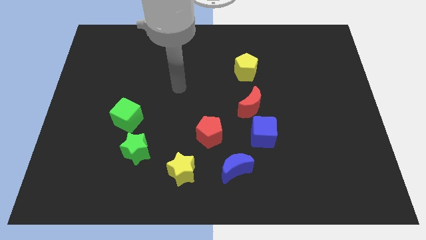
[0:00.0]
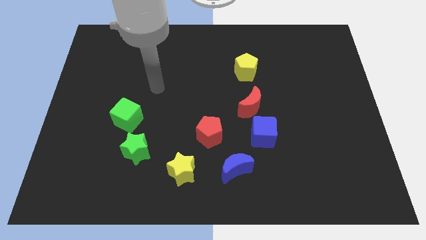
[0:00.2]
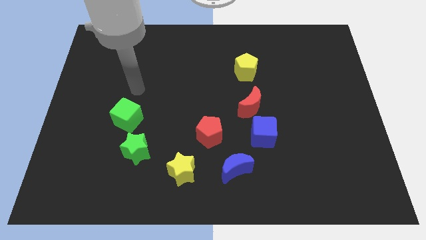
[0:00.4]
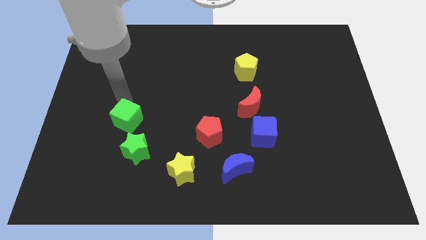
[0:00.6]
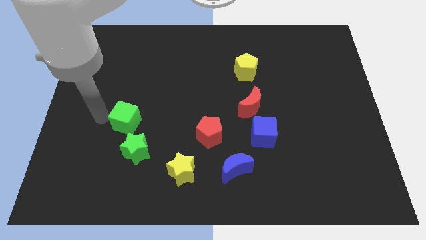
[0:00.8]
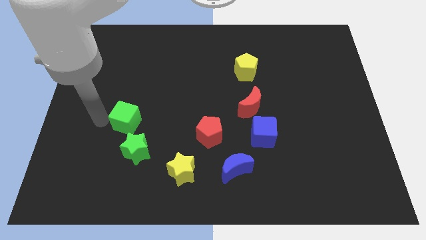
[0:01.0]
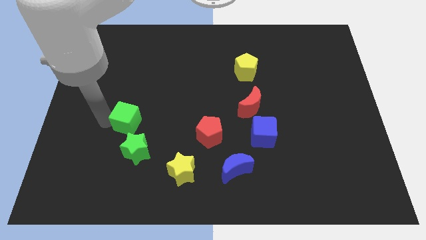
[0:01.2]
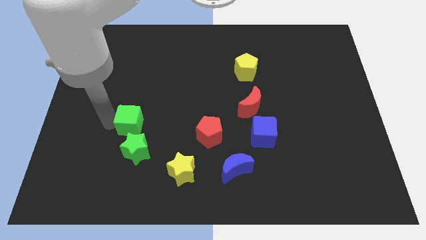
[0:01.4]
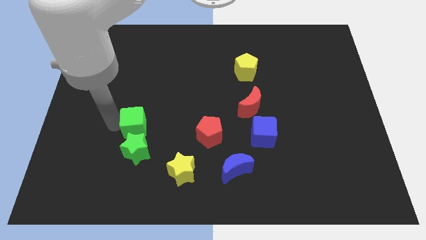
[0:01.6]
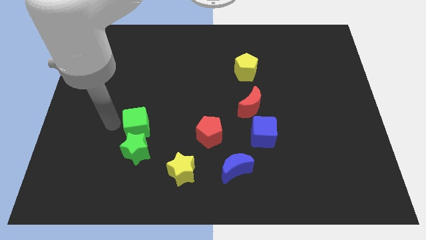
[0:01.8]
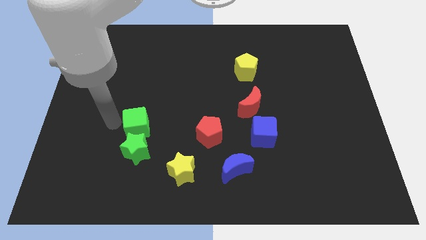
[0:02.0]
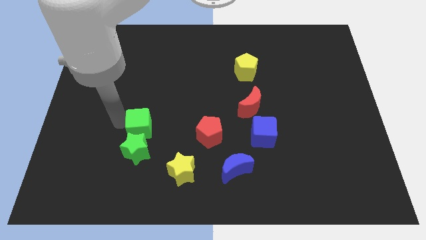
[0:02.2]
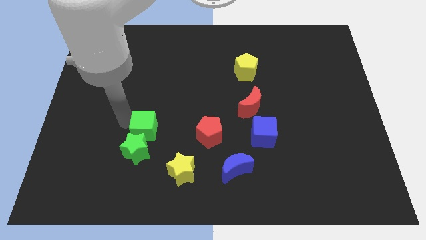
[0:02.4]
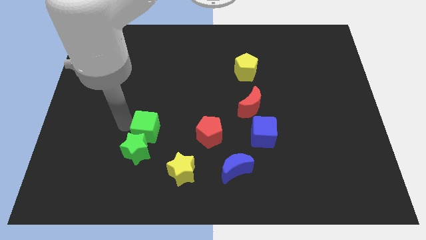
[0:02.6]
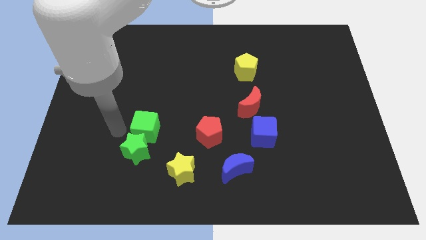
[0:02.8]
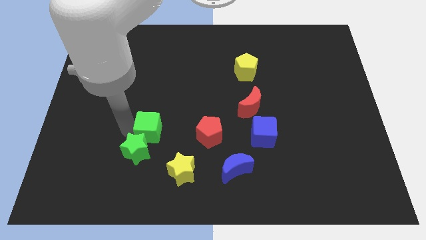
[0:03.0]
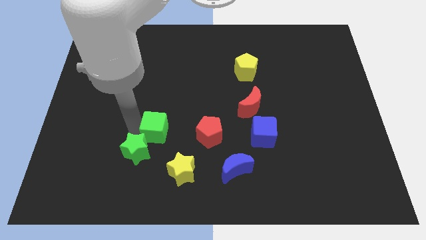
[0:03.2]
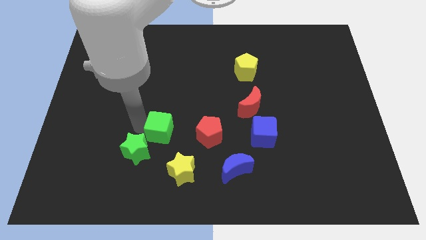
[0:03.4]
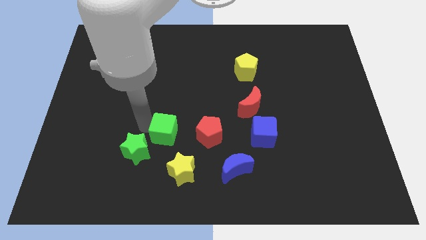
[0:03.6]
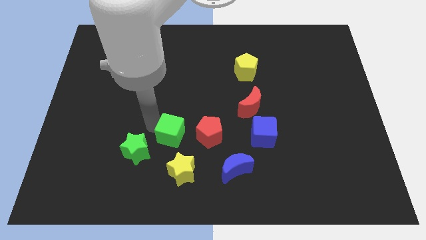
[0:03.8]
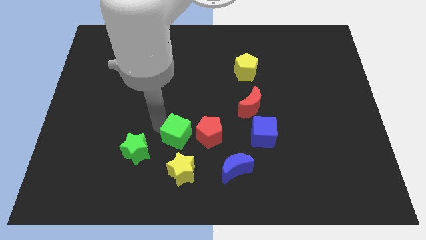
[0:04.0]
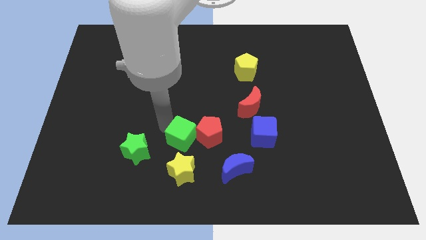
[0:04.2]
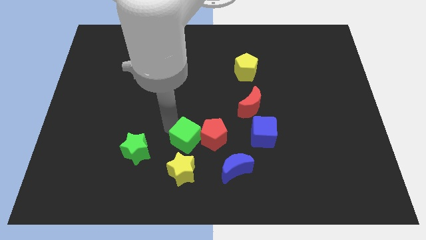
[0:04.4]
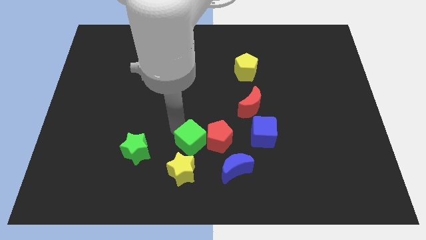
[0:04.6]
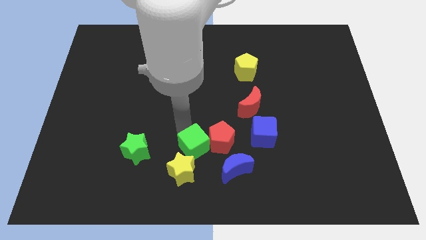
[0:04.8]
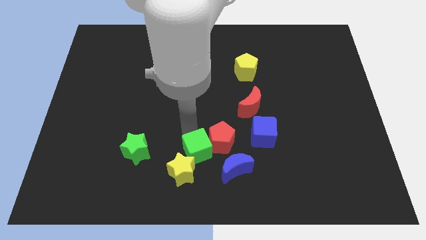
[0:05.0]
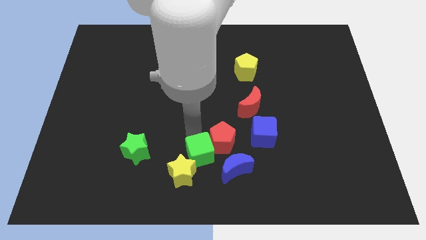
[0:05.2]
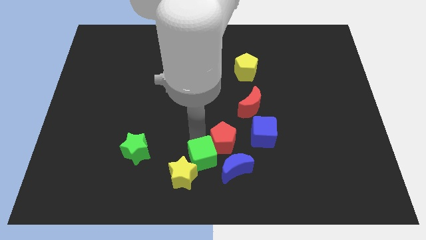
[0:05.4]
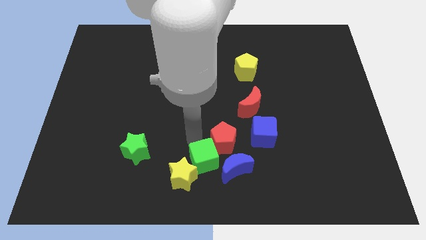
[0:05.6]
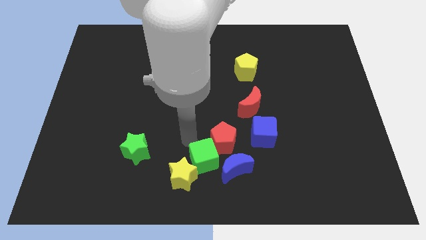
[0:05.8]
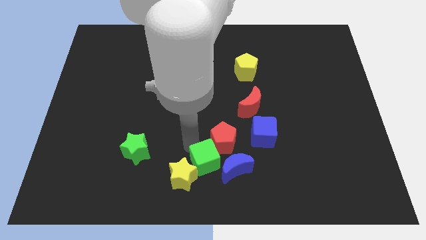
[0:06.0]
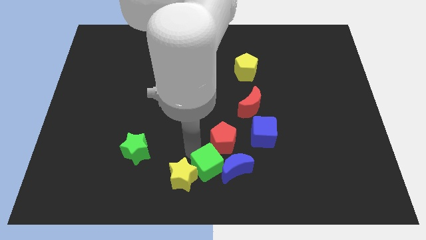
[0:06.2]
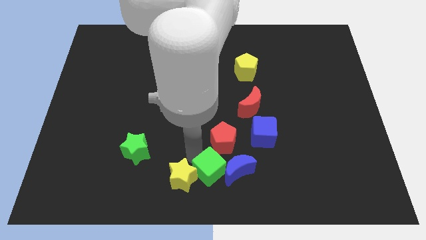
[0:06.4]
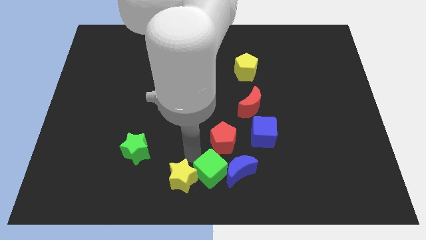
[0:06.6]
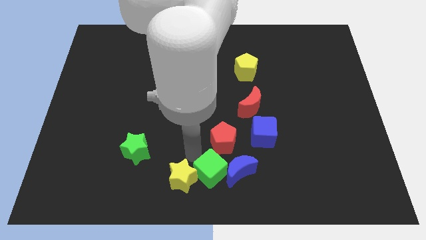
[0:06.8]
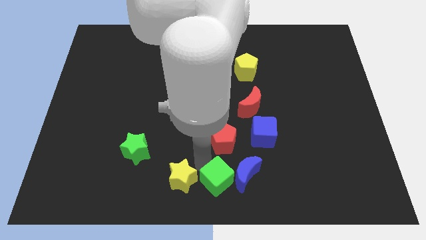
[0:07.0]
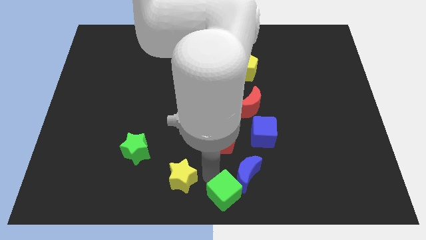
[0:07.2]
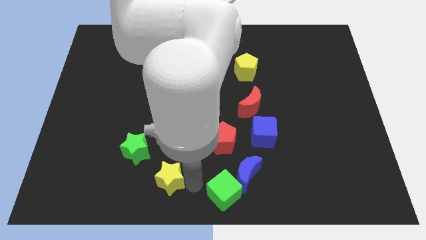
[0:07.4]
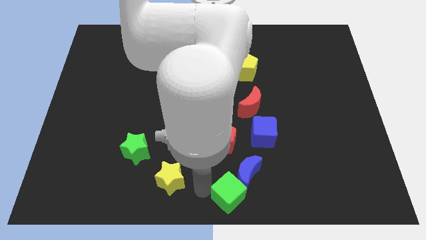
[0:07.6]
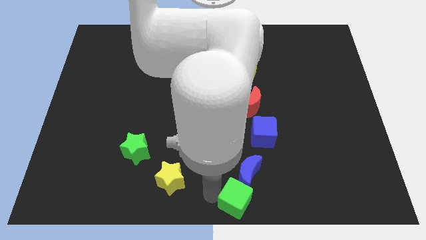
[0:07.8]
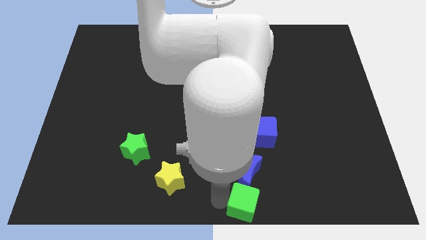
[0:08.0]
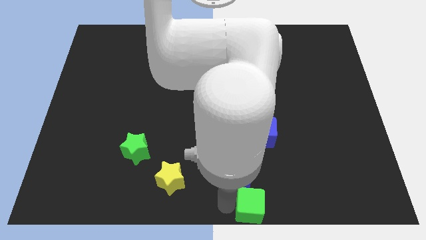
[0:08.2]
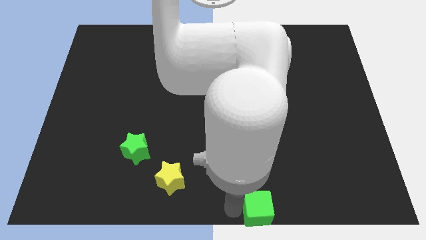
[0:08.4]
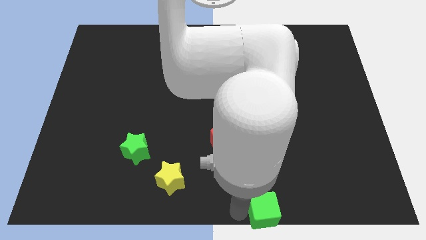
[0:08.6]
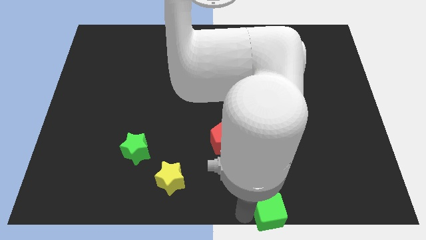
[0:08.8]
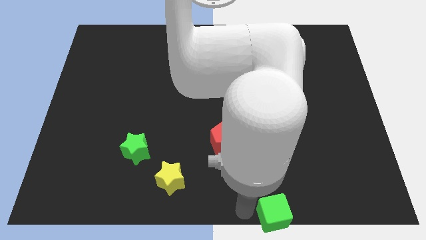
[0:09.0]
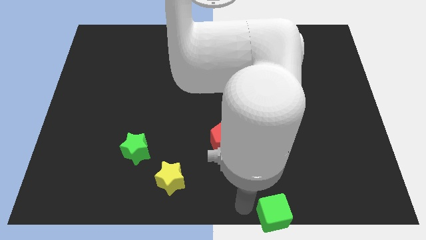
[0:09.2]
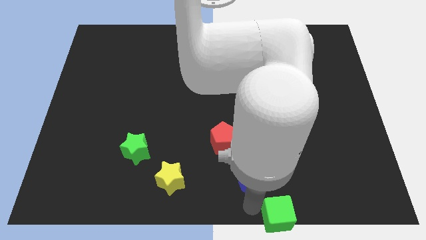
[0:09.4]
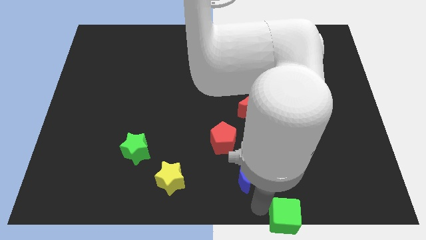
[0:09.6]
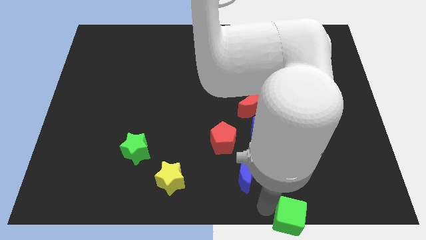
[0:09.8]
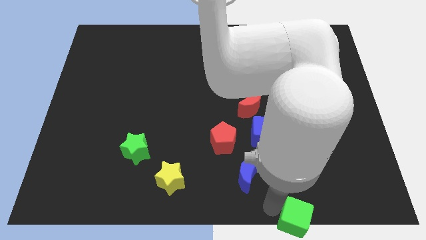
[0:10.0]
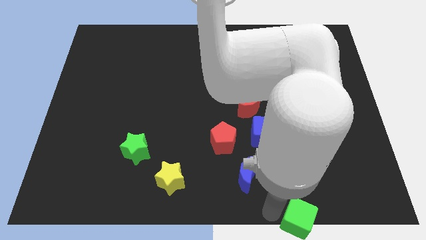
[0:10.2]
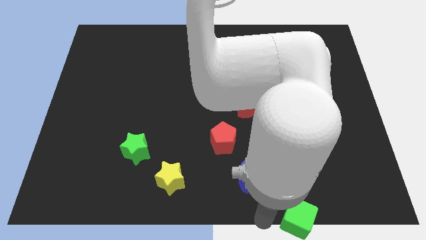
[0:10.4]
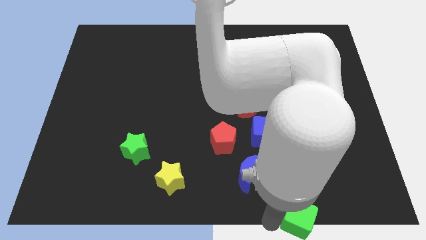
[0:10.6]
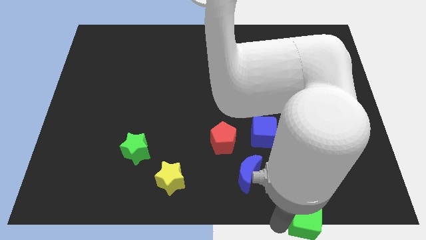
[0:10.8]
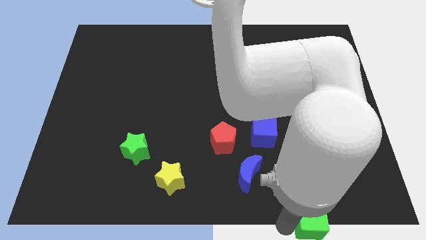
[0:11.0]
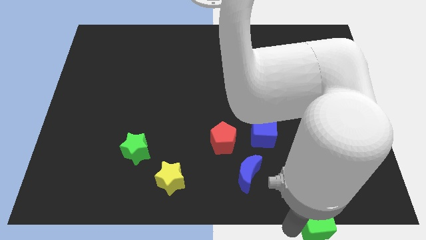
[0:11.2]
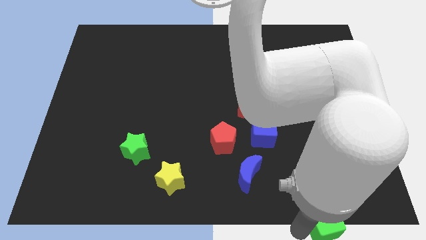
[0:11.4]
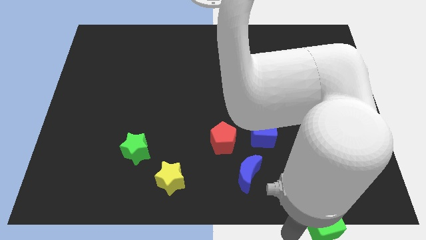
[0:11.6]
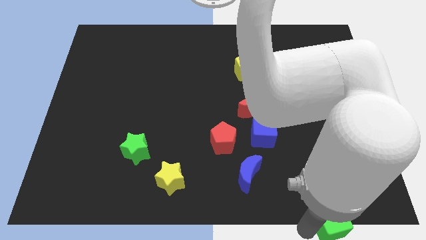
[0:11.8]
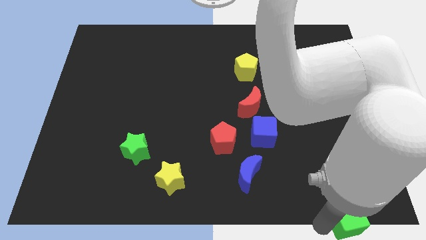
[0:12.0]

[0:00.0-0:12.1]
move the green cube to the bottom right corner

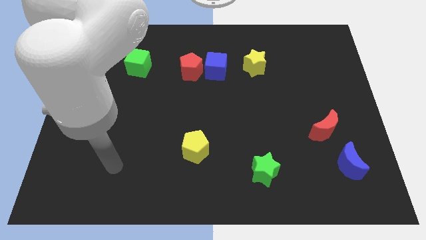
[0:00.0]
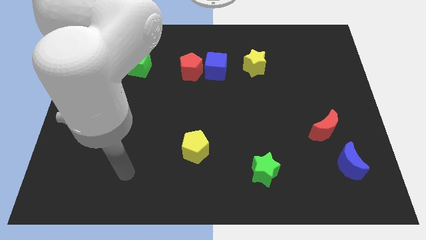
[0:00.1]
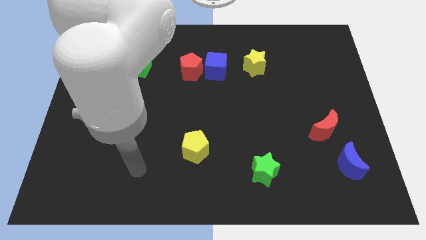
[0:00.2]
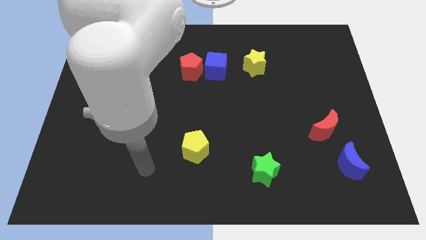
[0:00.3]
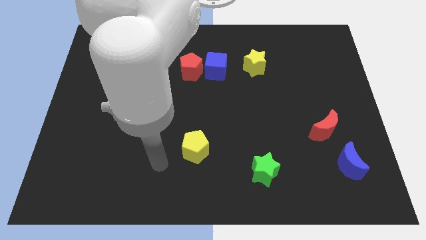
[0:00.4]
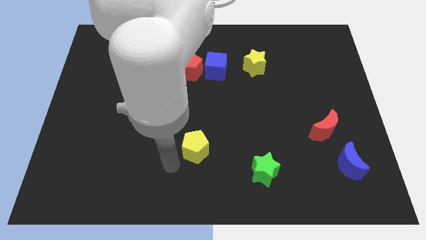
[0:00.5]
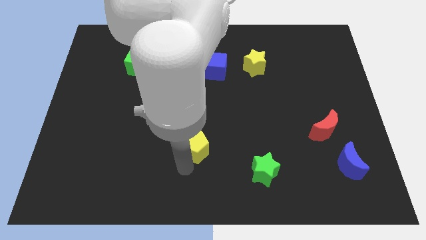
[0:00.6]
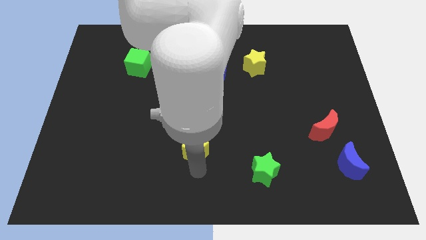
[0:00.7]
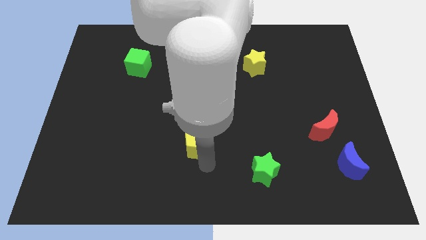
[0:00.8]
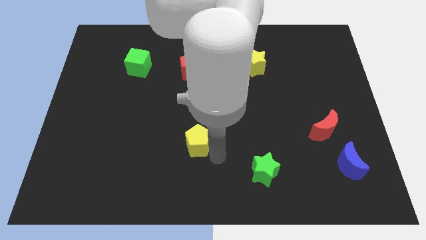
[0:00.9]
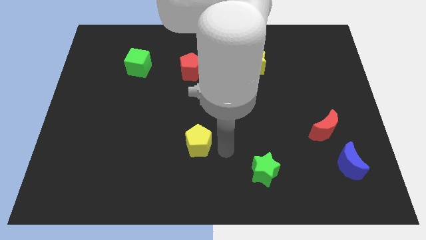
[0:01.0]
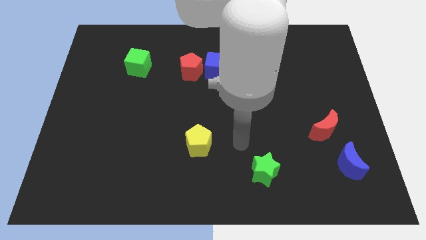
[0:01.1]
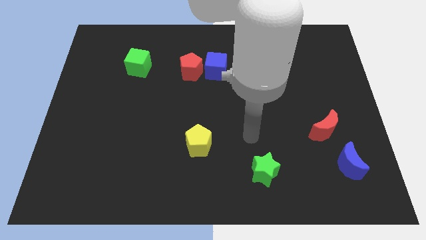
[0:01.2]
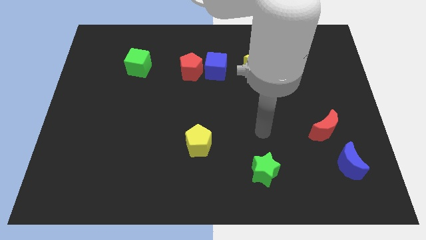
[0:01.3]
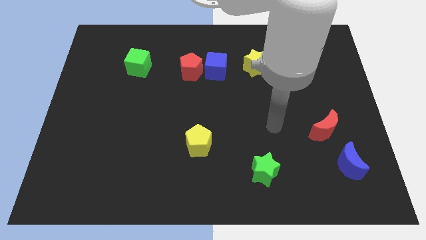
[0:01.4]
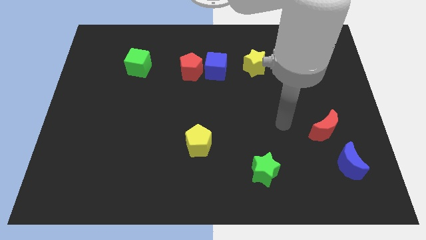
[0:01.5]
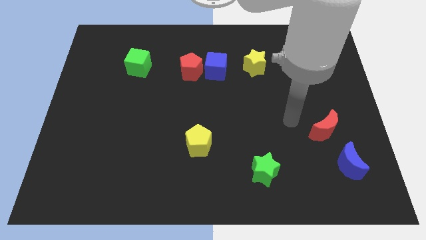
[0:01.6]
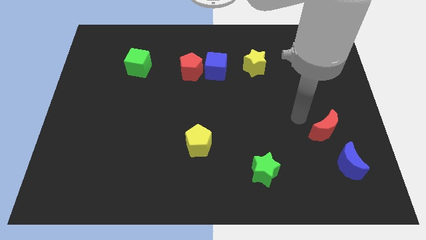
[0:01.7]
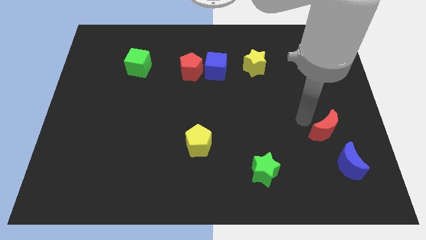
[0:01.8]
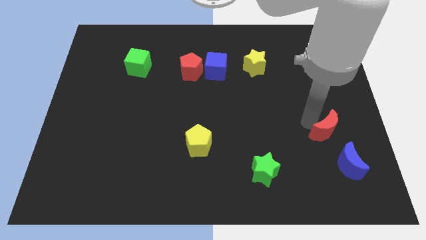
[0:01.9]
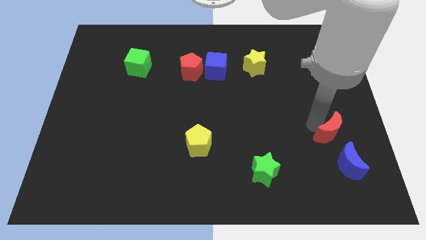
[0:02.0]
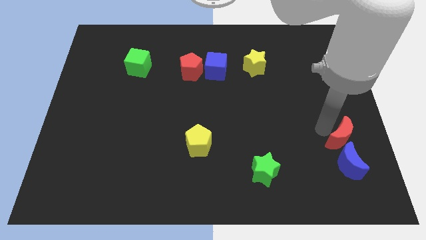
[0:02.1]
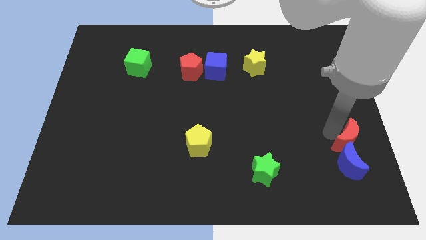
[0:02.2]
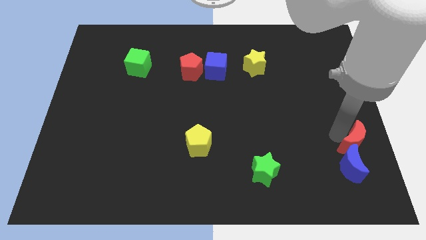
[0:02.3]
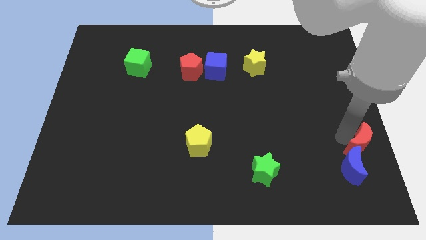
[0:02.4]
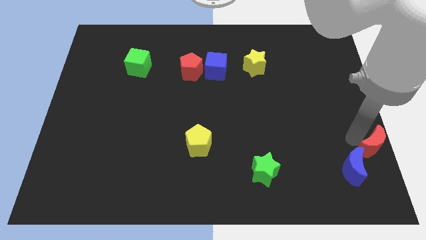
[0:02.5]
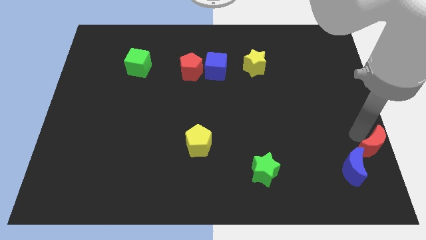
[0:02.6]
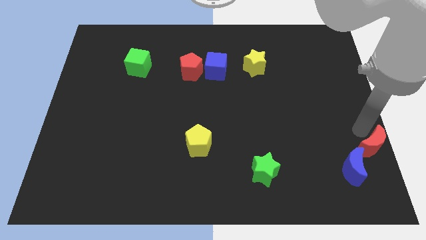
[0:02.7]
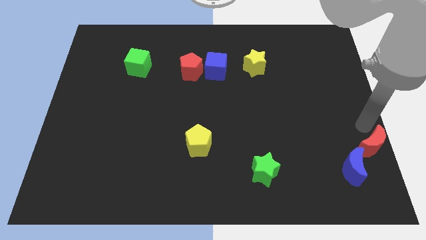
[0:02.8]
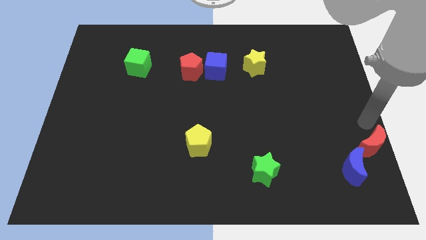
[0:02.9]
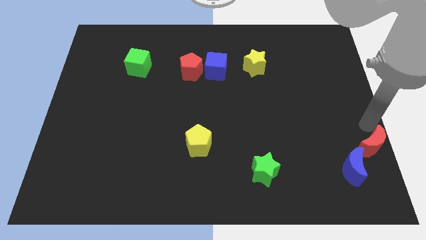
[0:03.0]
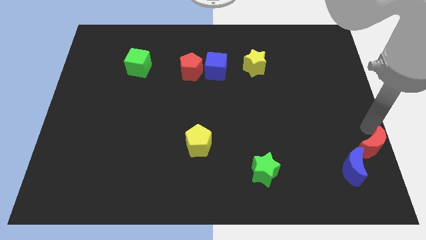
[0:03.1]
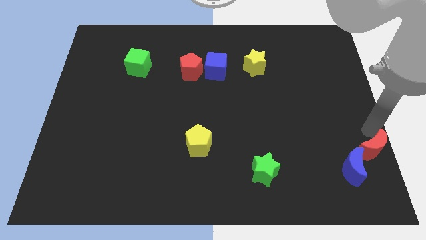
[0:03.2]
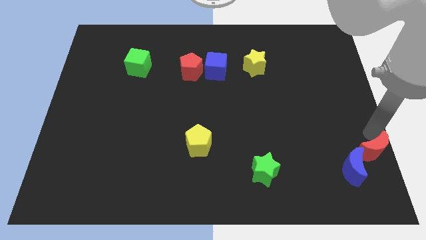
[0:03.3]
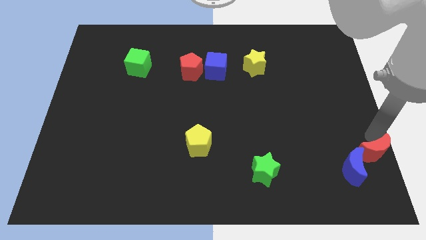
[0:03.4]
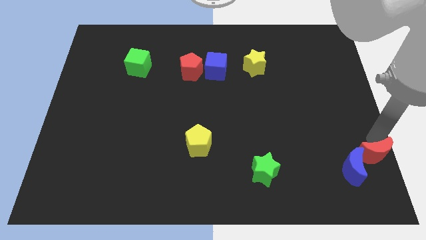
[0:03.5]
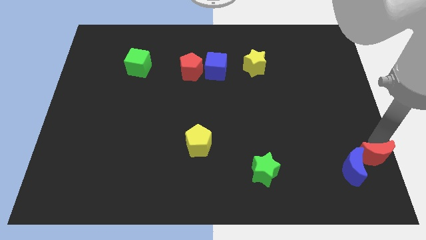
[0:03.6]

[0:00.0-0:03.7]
push the red moon to the bottom right corner
